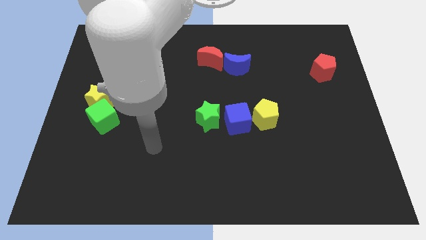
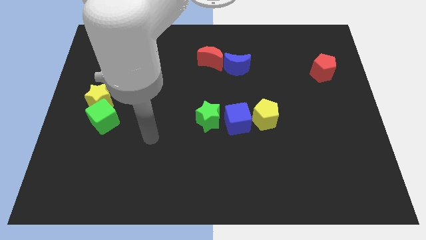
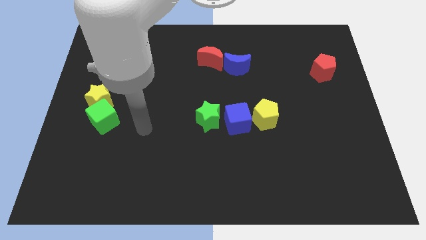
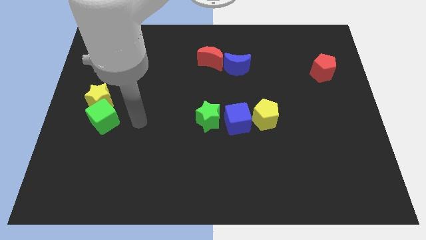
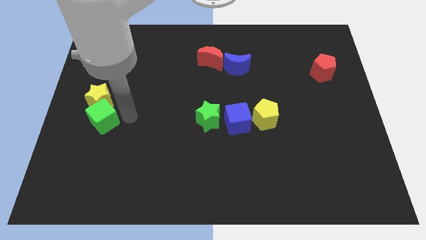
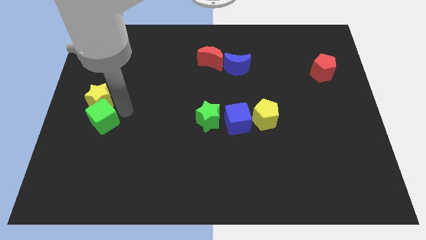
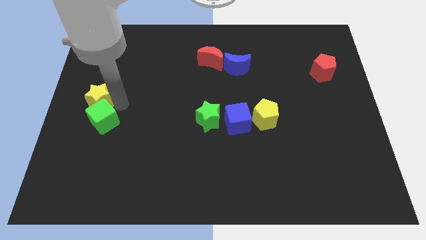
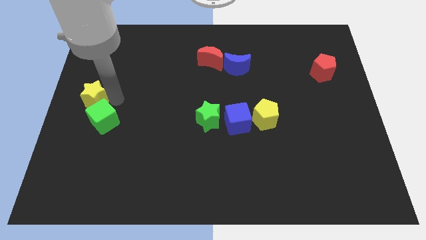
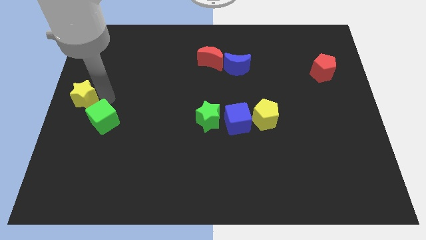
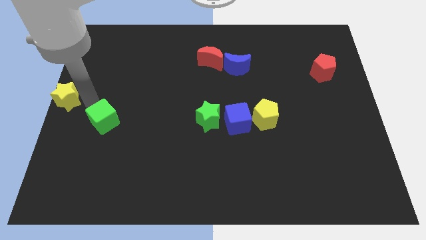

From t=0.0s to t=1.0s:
move the green cube away from the yellow star

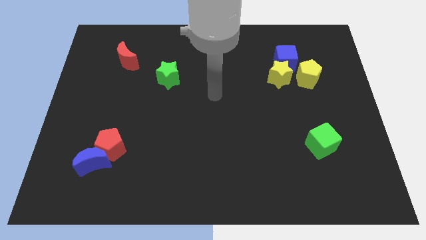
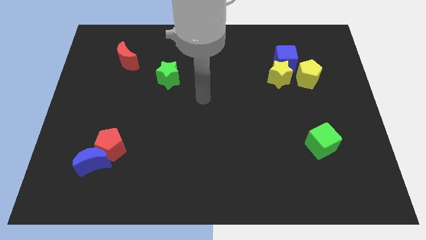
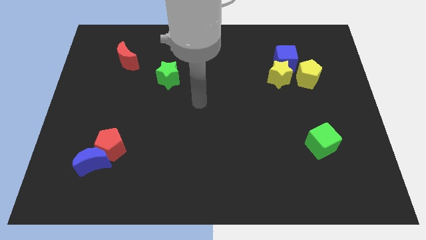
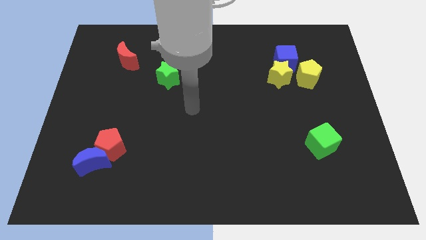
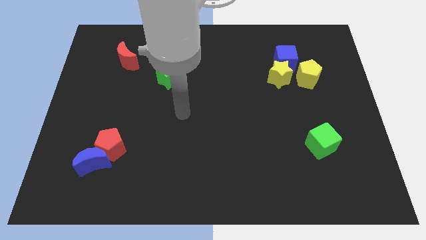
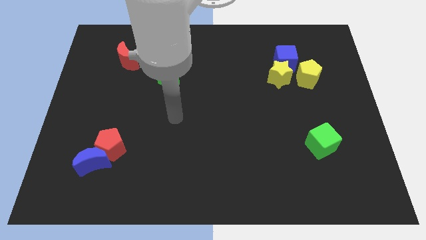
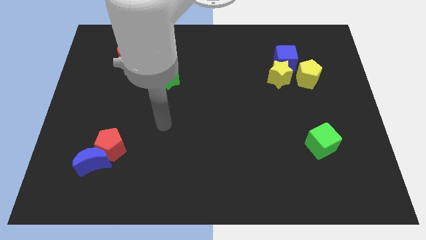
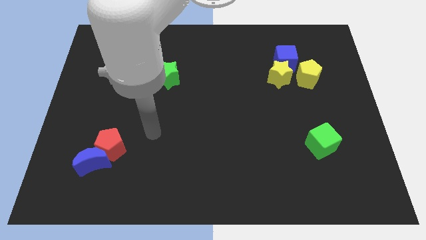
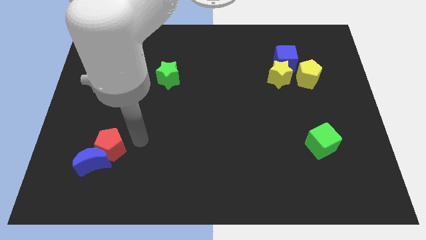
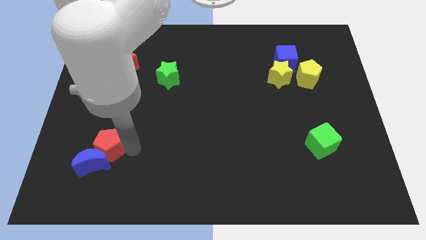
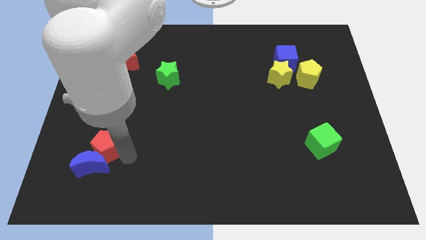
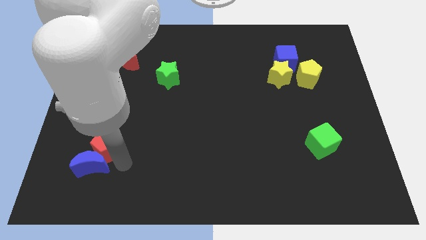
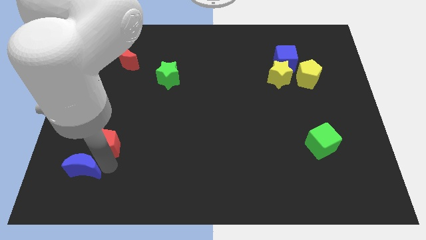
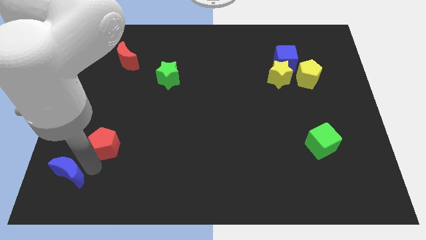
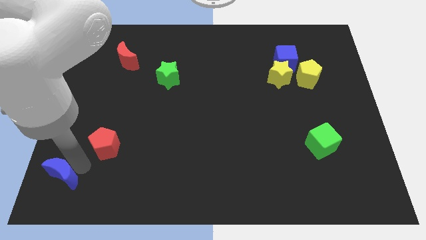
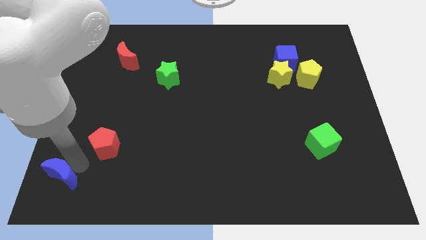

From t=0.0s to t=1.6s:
pull the red pentagon apart from the blue moon

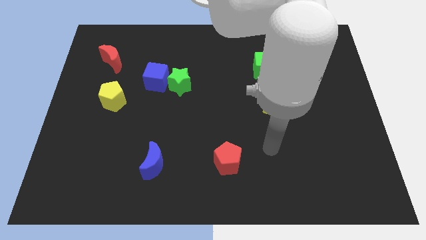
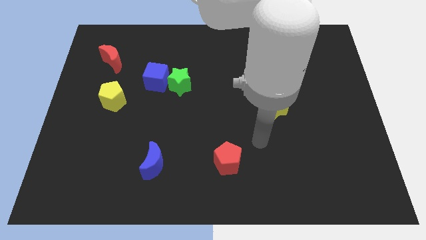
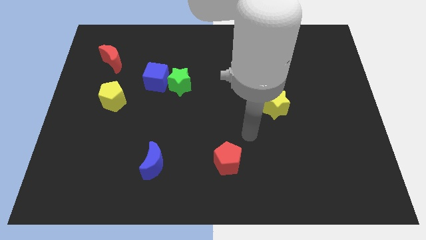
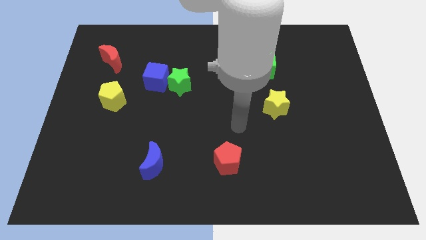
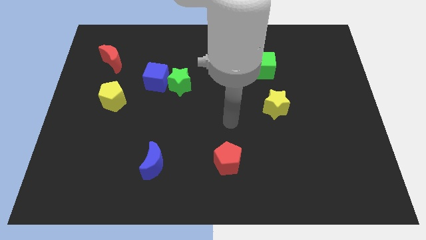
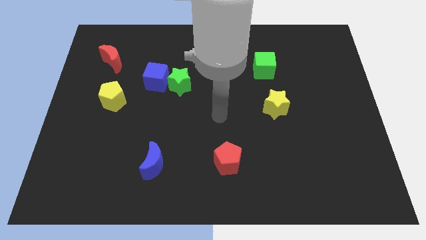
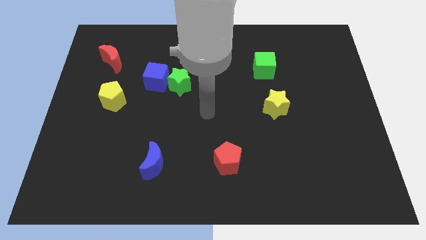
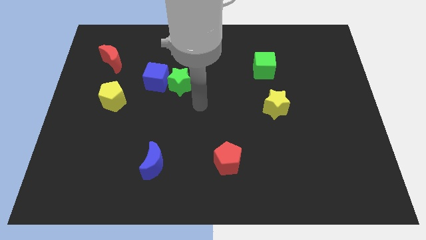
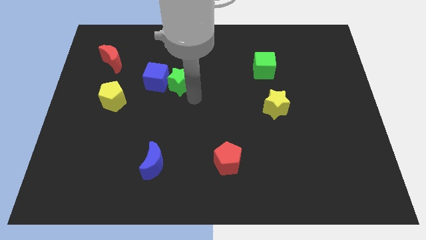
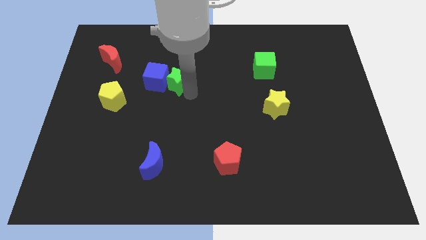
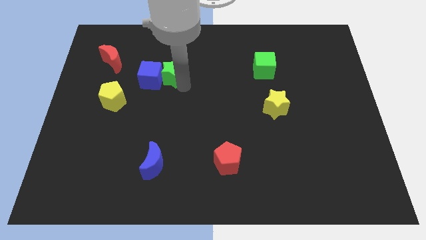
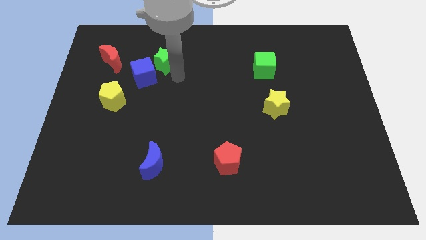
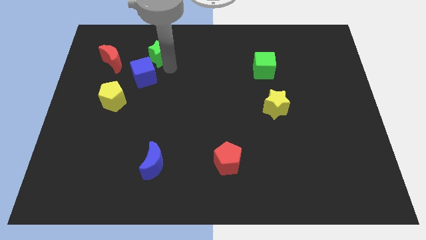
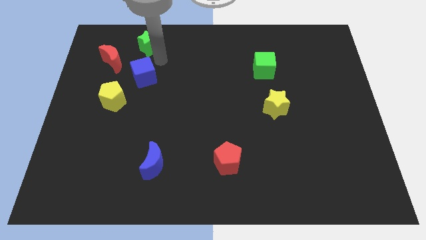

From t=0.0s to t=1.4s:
separate the blue cube from the green star

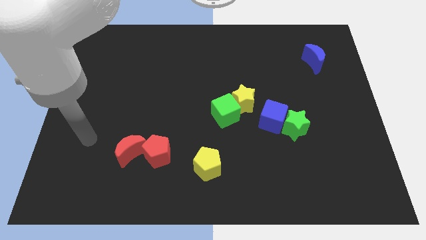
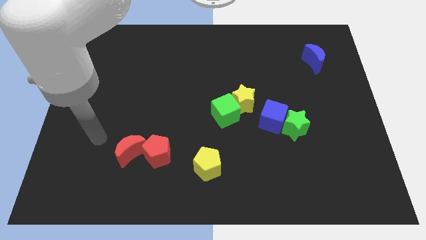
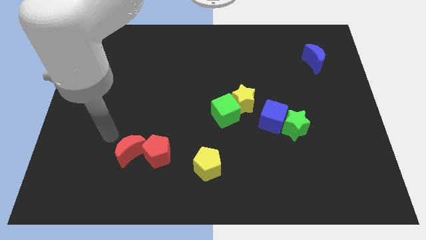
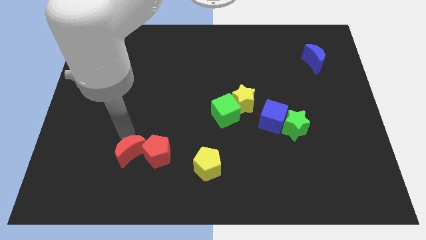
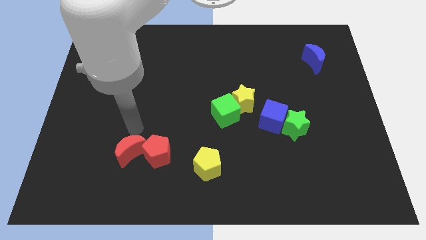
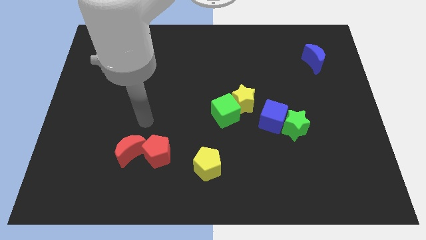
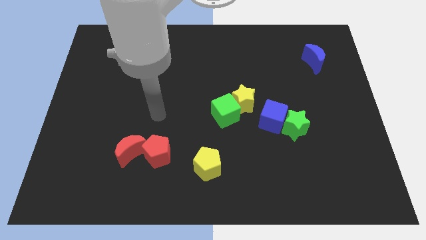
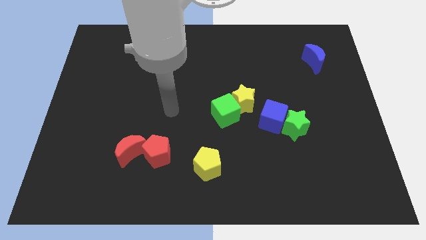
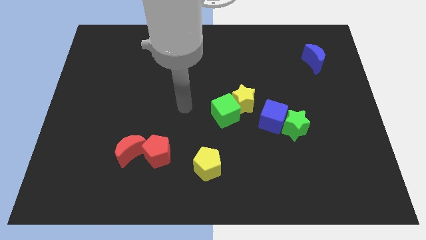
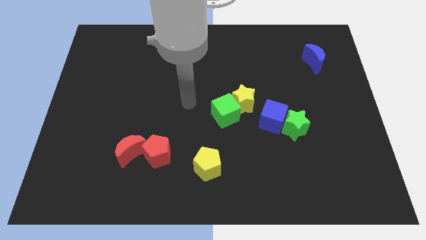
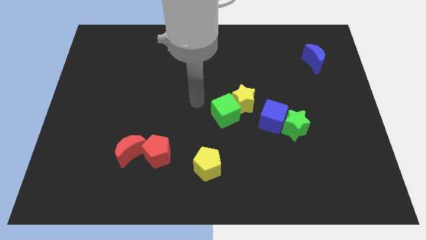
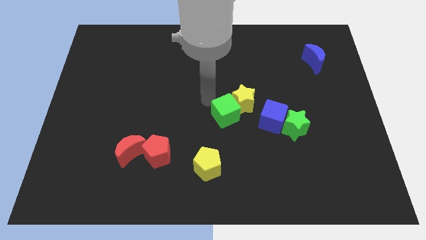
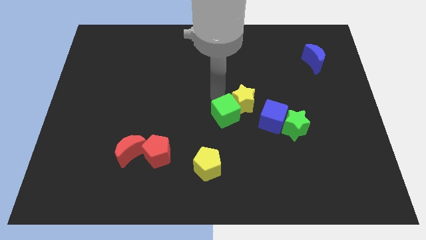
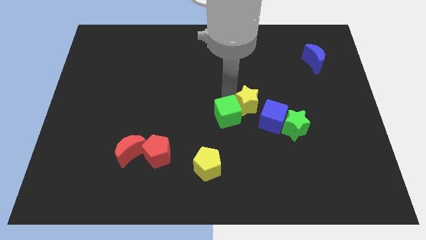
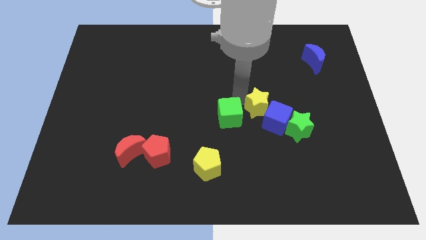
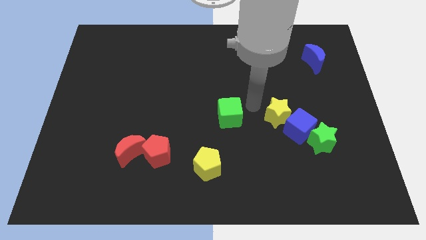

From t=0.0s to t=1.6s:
pull the green cube apart from the yellow star

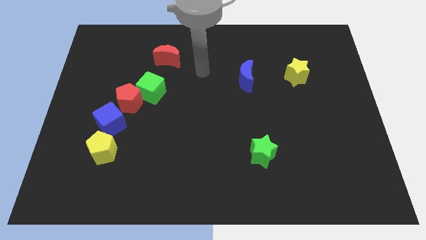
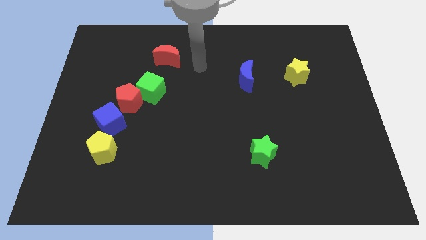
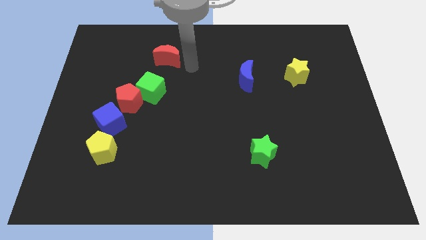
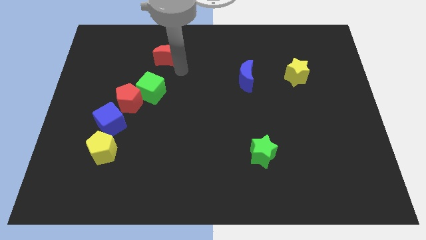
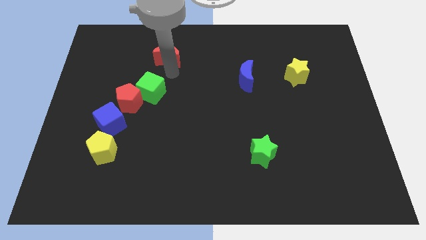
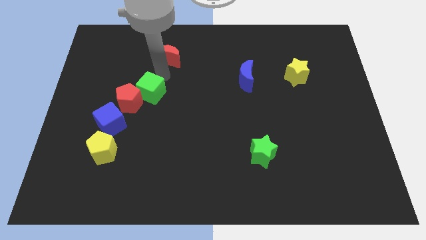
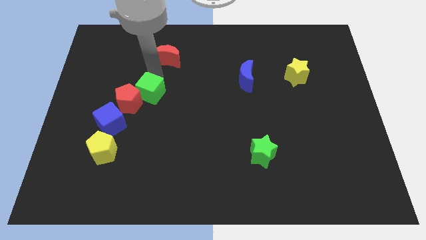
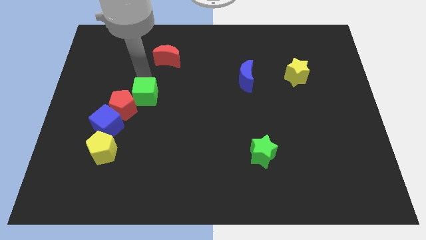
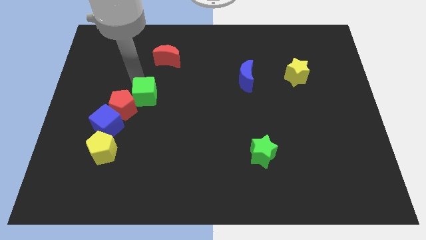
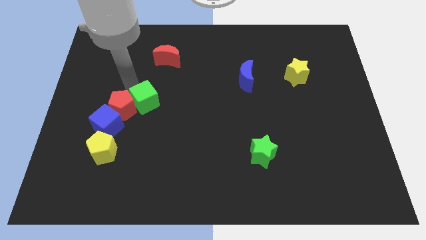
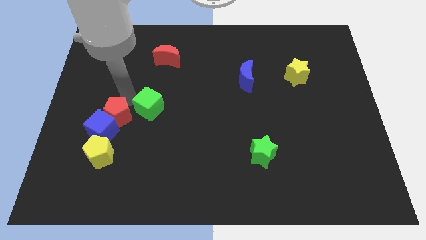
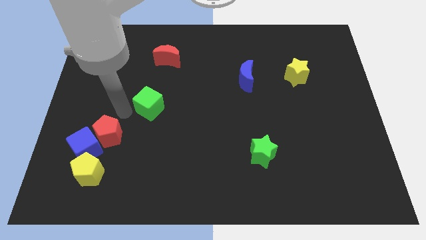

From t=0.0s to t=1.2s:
pull the green cube apart from the red pentagon

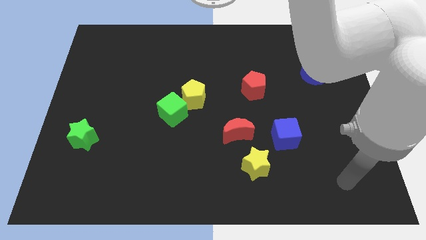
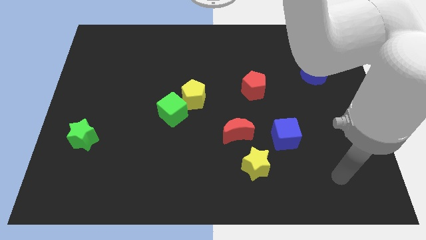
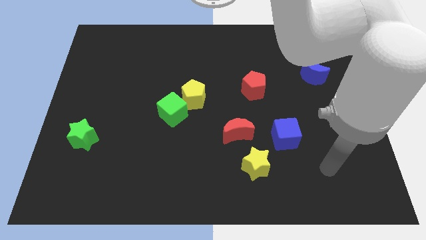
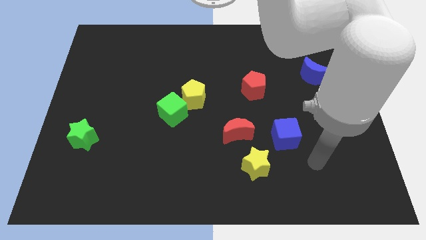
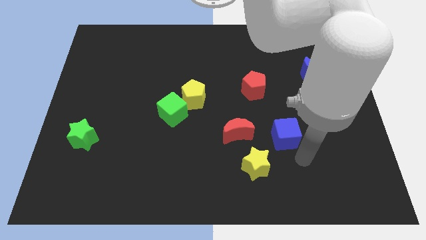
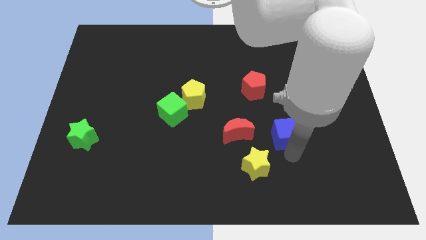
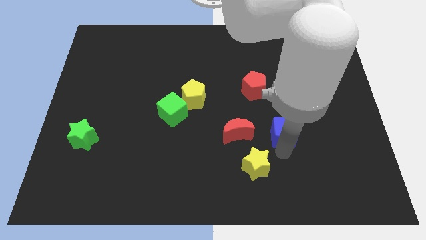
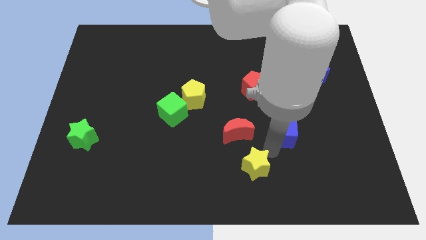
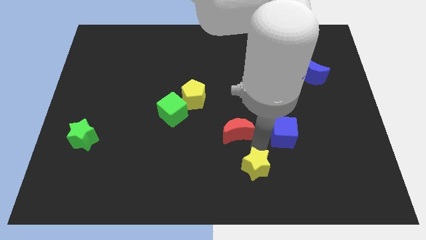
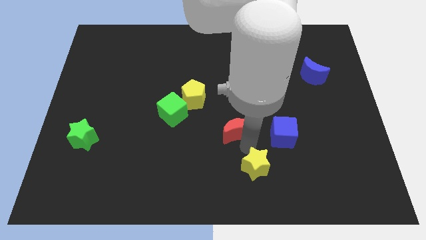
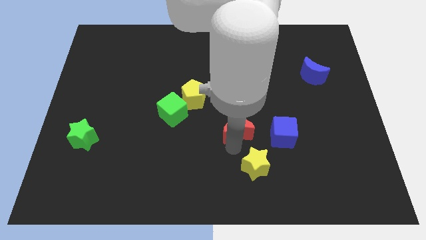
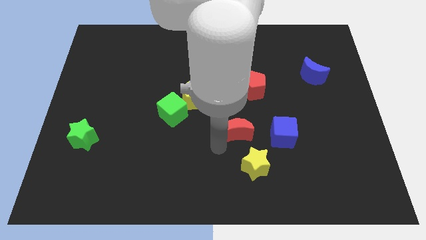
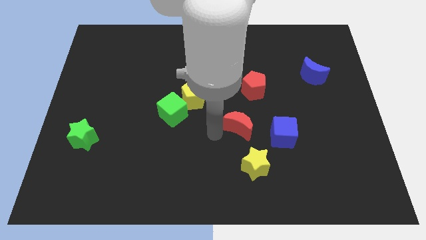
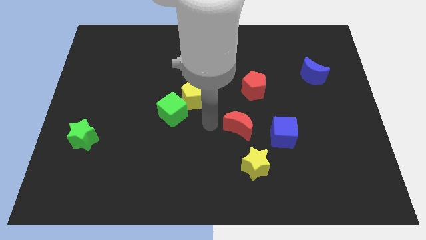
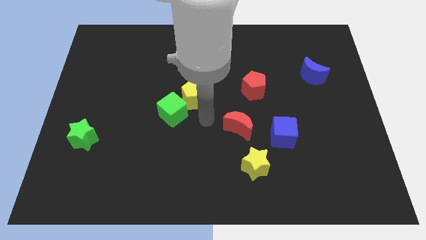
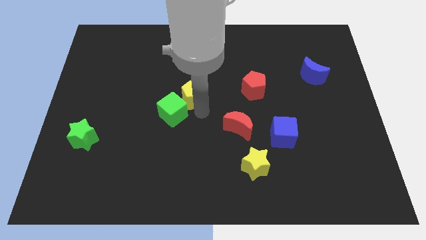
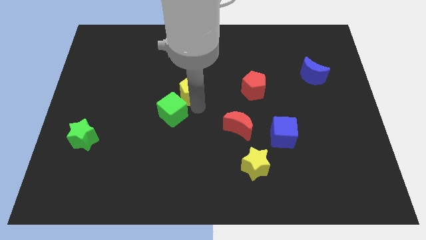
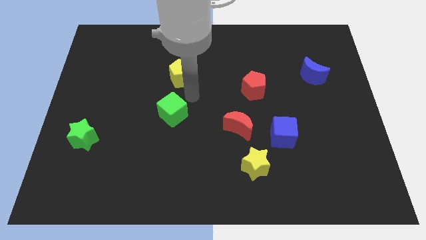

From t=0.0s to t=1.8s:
move the green cube away from the yellow pentagon

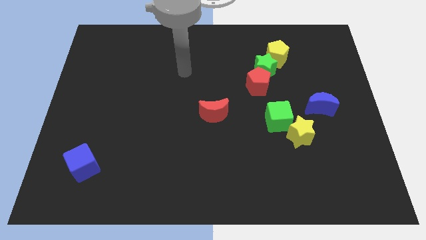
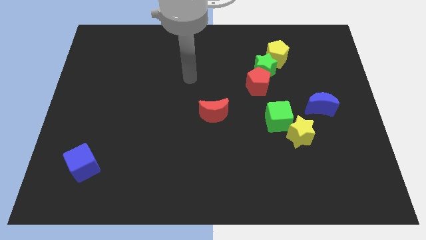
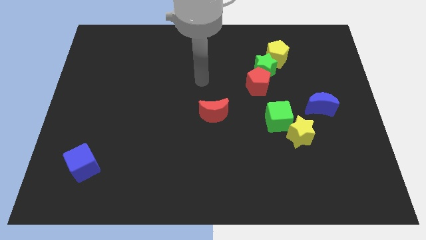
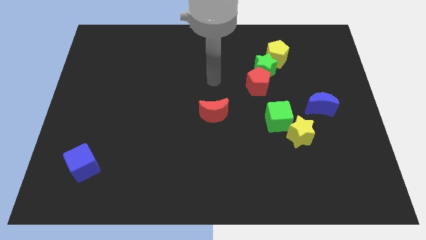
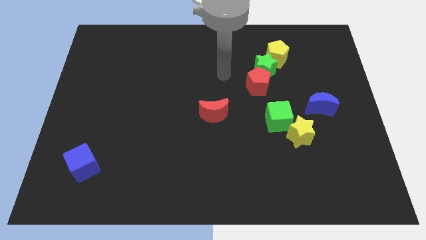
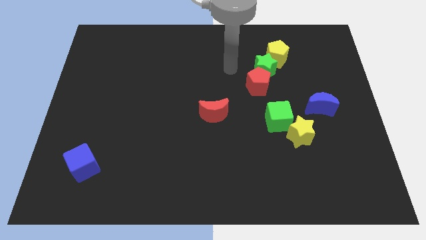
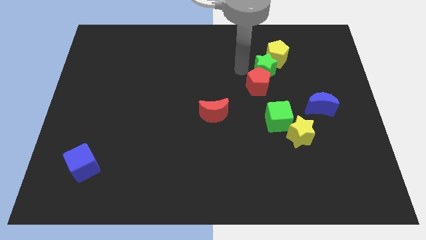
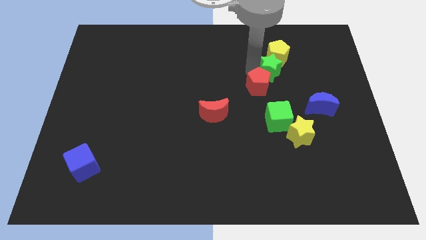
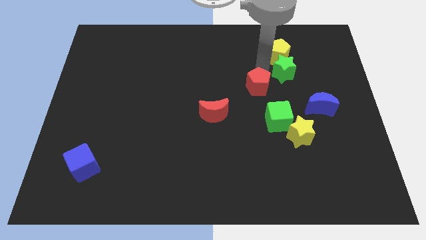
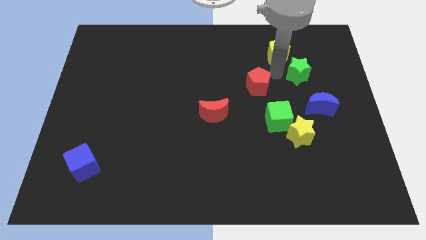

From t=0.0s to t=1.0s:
move the red pentagon away from the green star
